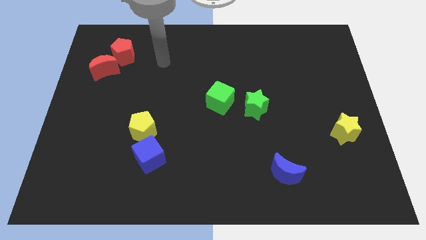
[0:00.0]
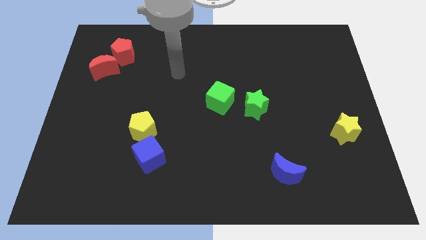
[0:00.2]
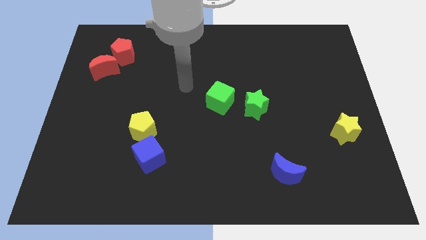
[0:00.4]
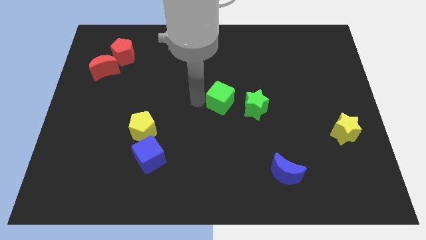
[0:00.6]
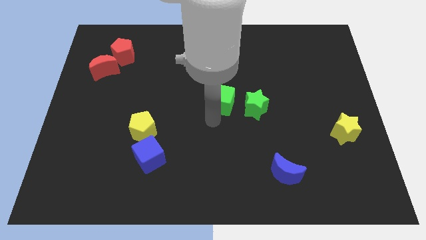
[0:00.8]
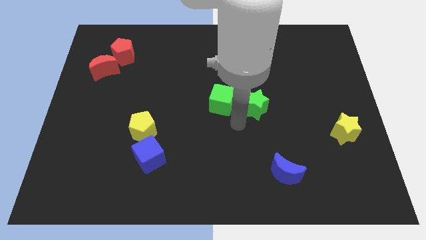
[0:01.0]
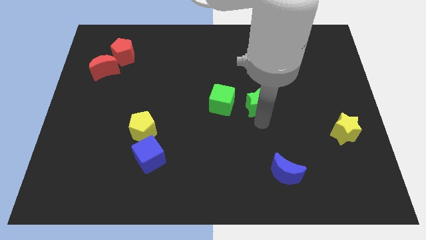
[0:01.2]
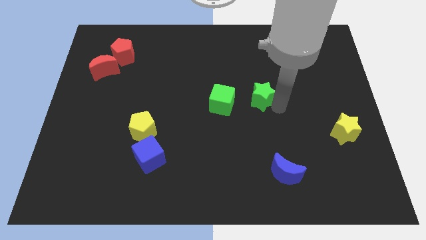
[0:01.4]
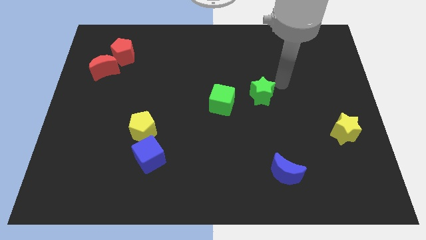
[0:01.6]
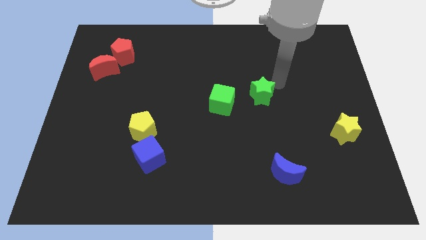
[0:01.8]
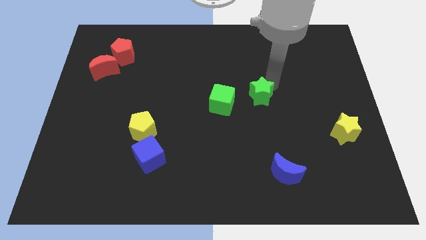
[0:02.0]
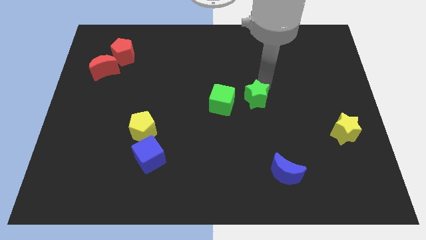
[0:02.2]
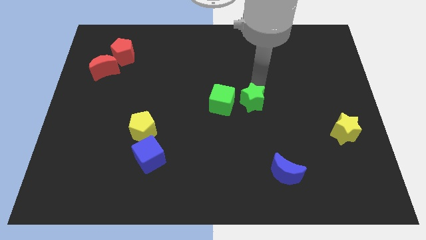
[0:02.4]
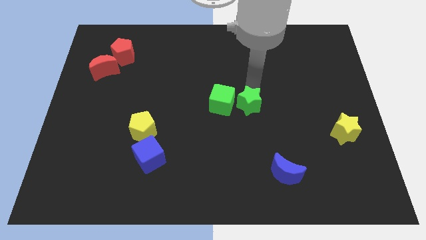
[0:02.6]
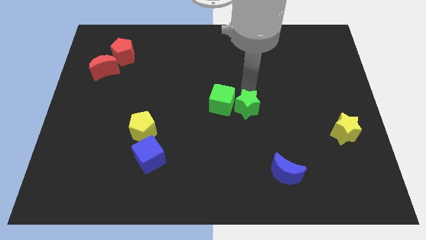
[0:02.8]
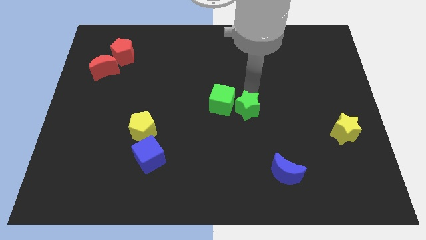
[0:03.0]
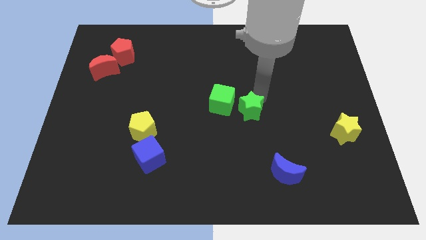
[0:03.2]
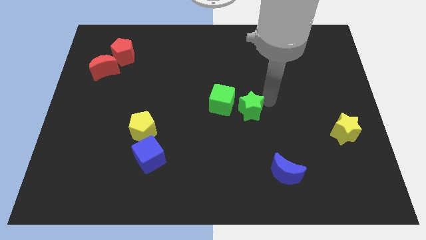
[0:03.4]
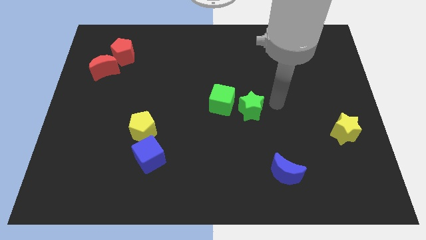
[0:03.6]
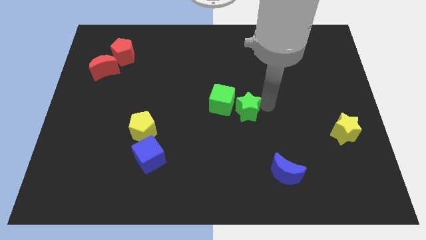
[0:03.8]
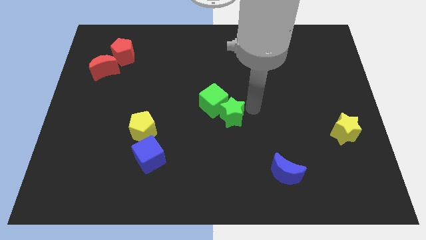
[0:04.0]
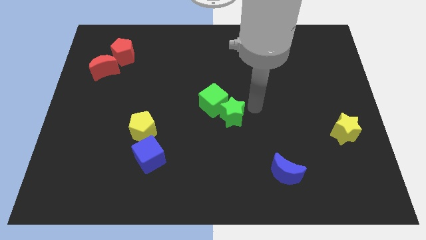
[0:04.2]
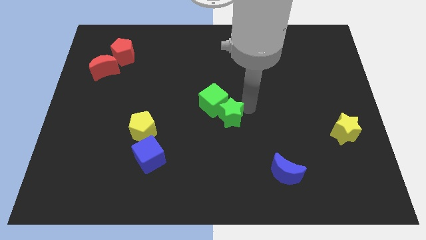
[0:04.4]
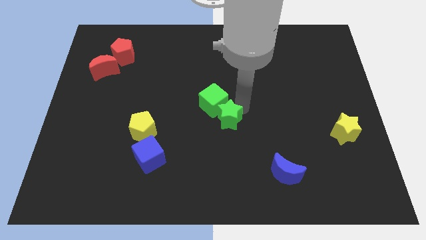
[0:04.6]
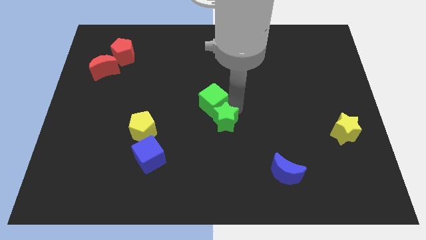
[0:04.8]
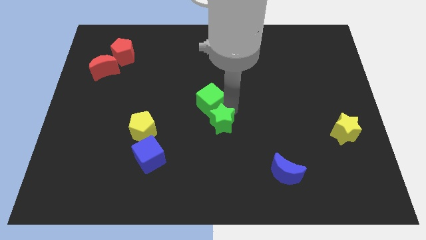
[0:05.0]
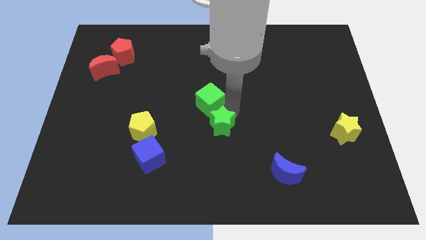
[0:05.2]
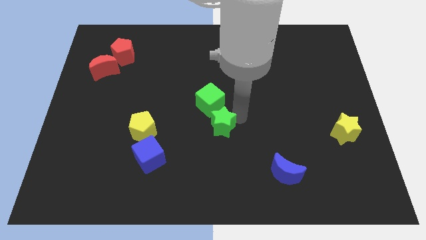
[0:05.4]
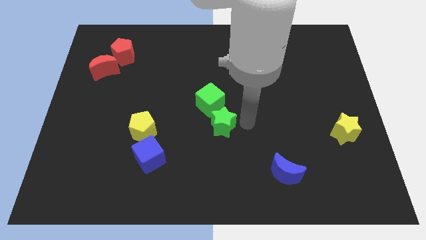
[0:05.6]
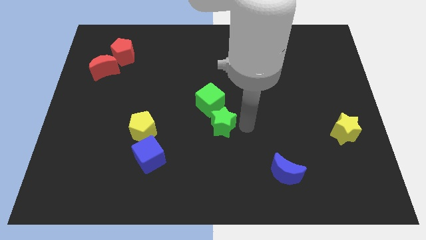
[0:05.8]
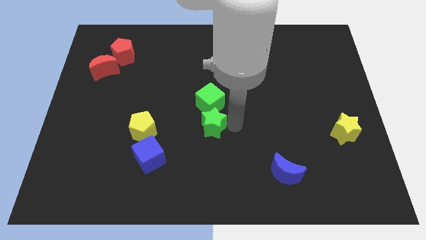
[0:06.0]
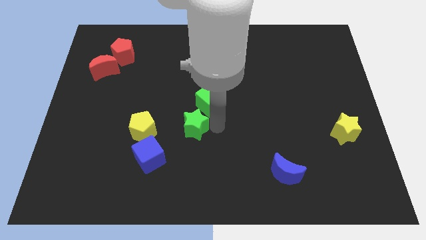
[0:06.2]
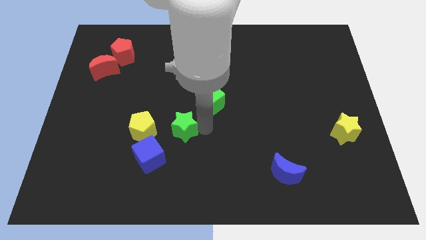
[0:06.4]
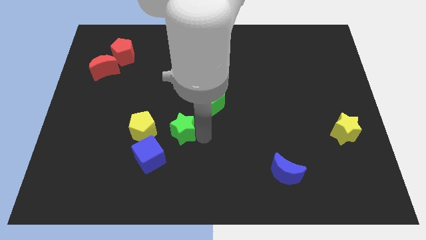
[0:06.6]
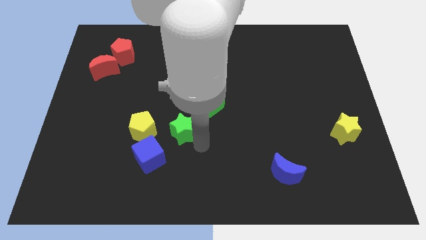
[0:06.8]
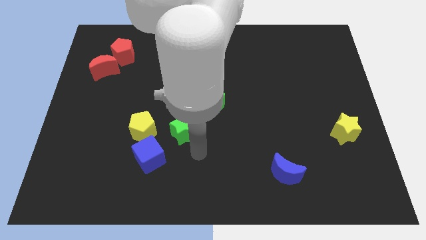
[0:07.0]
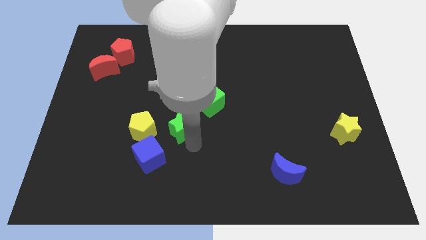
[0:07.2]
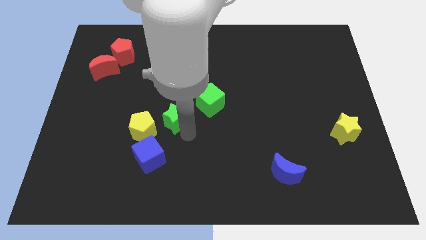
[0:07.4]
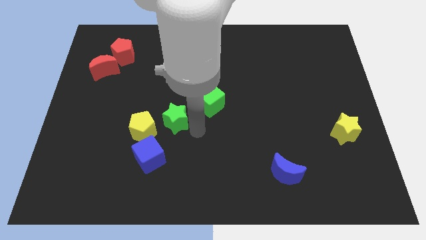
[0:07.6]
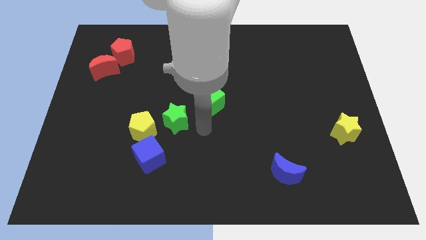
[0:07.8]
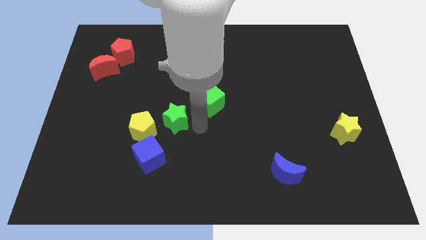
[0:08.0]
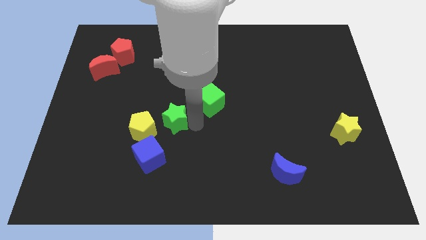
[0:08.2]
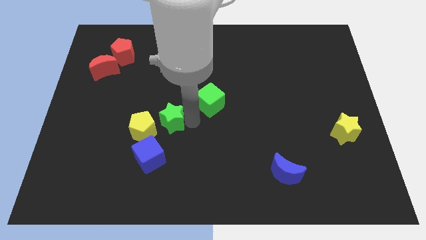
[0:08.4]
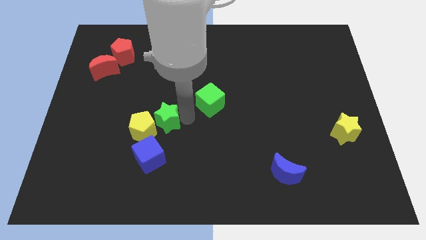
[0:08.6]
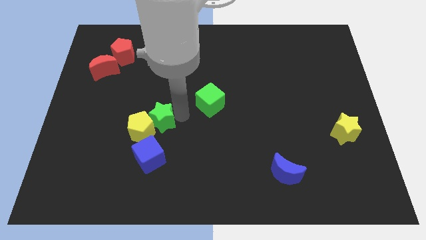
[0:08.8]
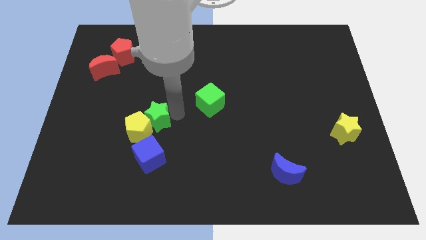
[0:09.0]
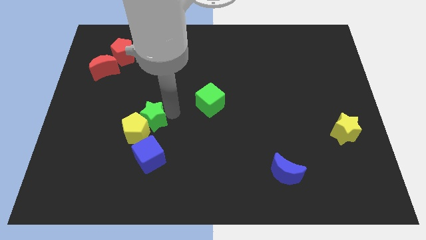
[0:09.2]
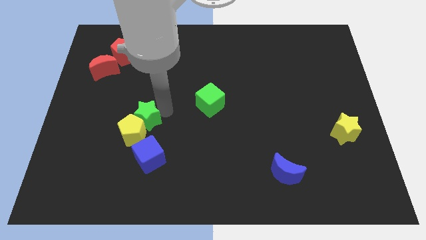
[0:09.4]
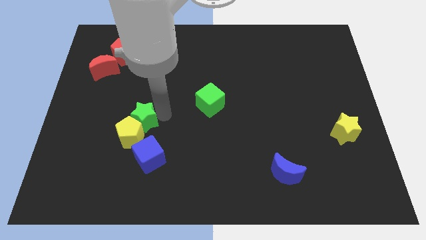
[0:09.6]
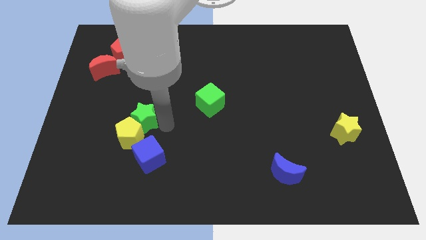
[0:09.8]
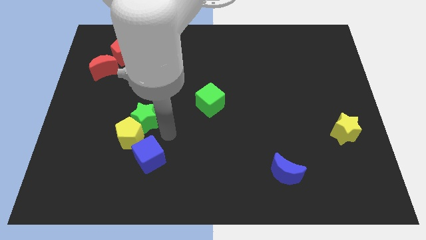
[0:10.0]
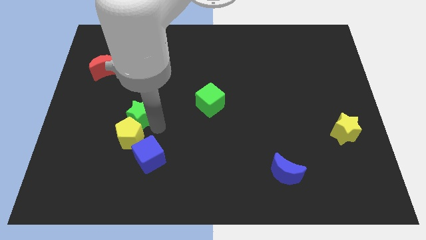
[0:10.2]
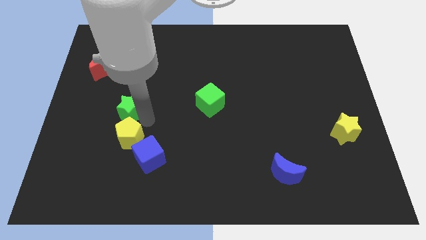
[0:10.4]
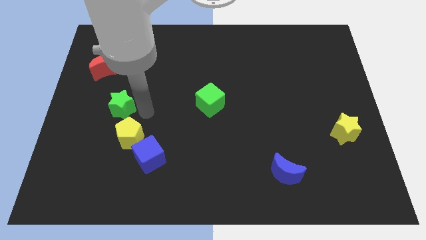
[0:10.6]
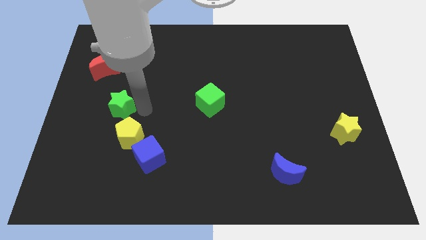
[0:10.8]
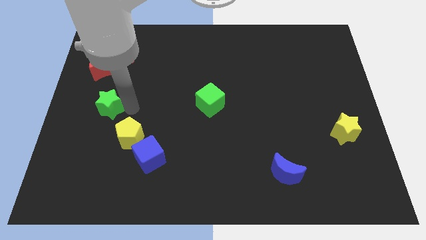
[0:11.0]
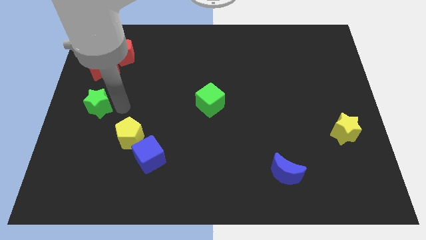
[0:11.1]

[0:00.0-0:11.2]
slide the green star to the left side of the board

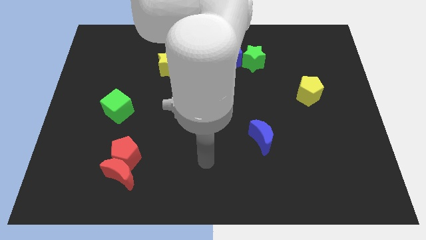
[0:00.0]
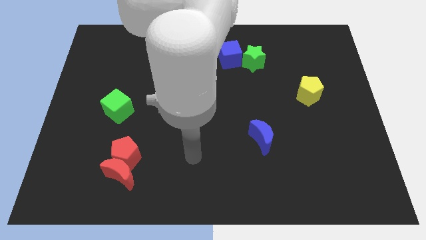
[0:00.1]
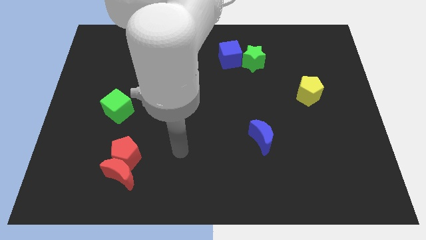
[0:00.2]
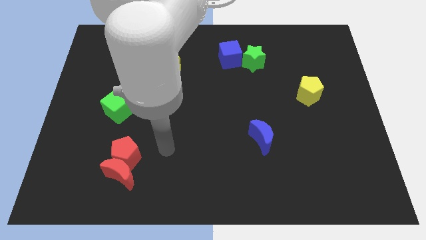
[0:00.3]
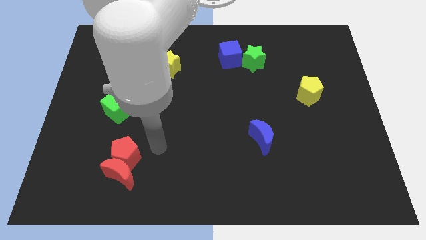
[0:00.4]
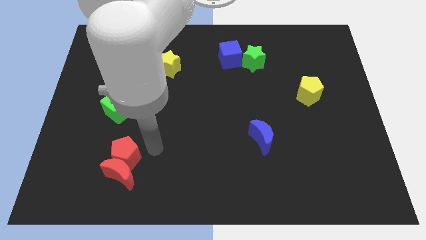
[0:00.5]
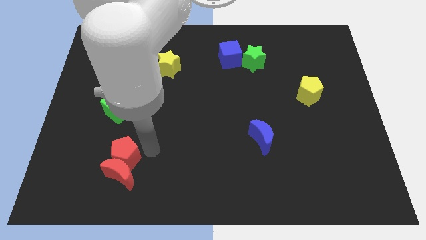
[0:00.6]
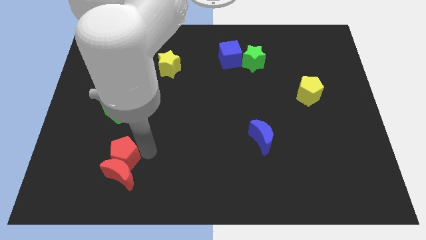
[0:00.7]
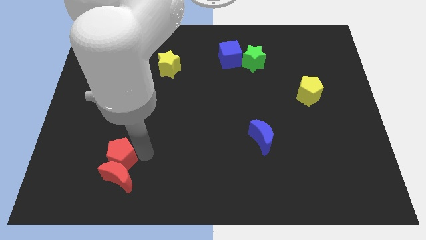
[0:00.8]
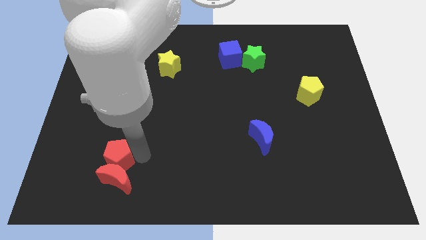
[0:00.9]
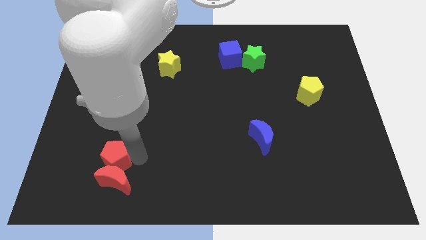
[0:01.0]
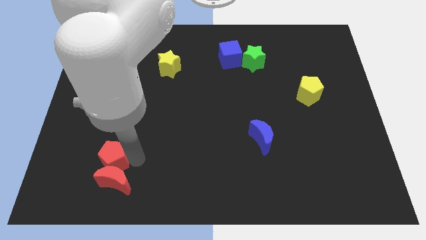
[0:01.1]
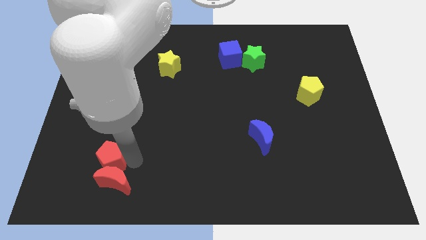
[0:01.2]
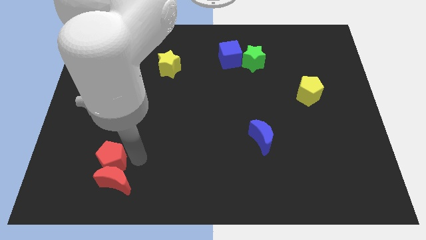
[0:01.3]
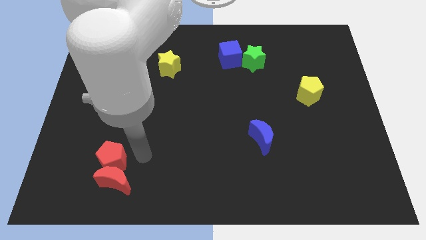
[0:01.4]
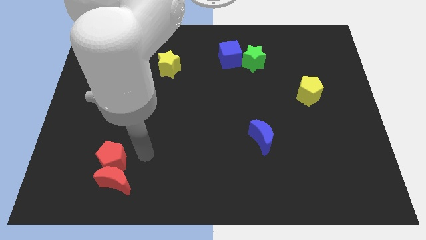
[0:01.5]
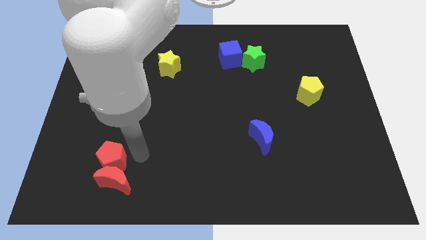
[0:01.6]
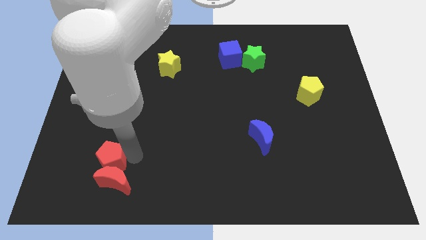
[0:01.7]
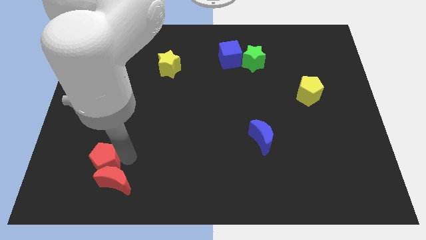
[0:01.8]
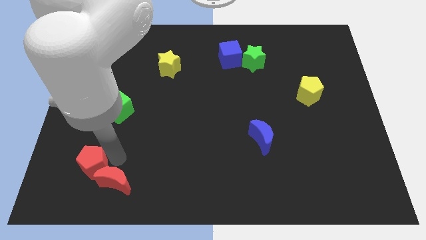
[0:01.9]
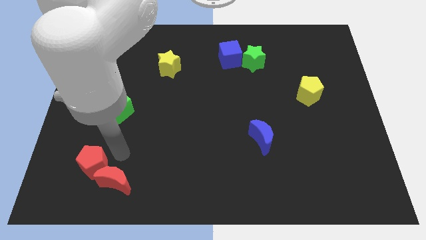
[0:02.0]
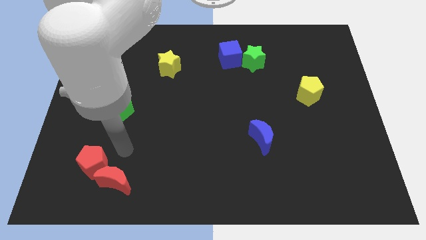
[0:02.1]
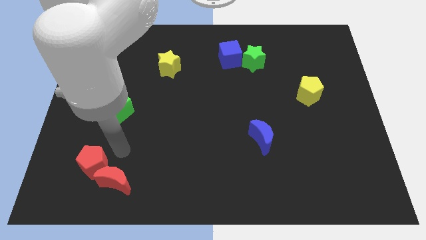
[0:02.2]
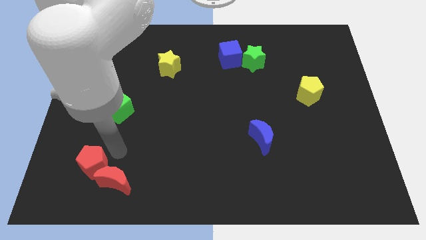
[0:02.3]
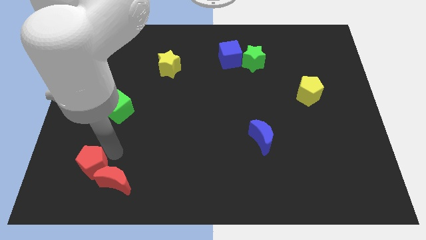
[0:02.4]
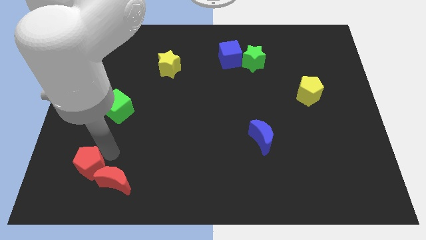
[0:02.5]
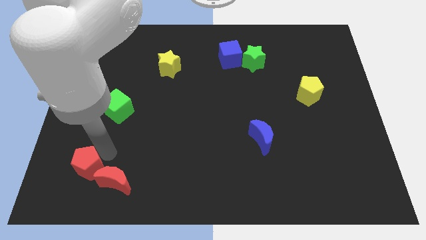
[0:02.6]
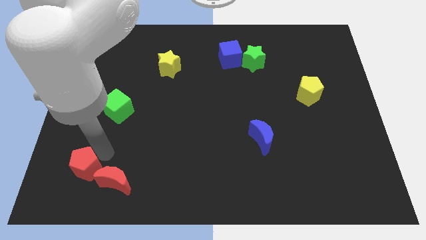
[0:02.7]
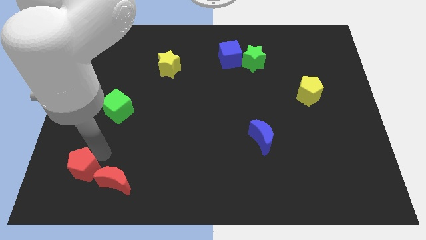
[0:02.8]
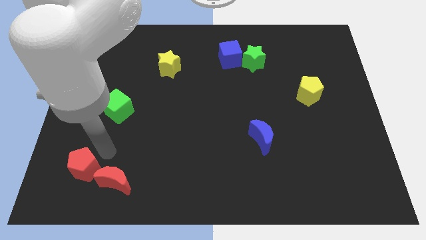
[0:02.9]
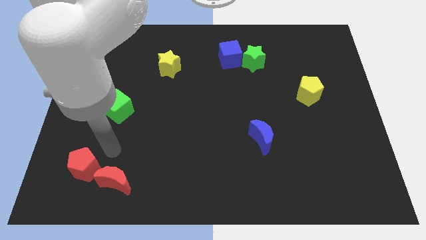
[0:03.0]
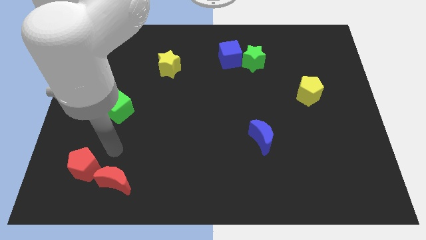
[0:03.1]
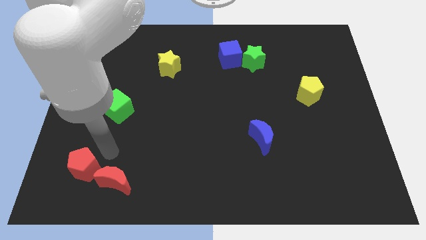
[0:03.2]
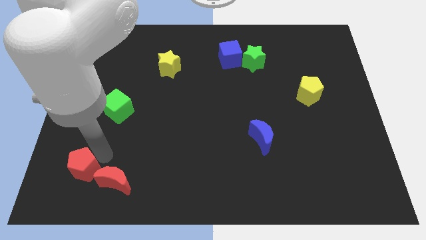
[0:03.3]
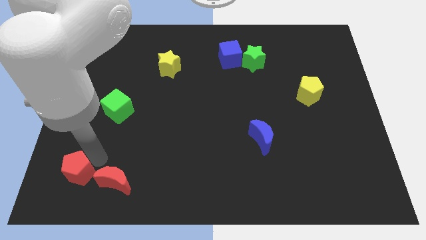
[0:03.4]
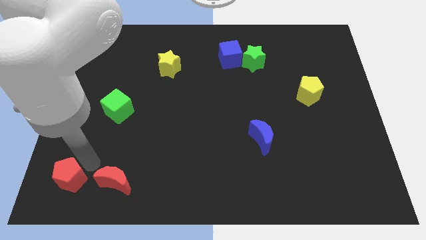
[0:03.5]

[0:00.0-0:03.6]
put the red pentagon to the bottom left of the board
